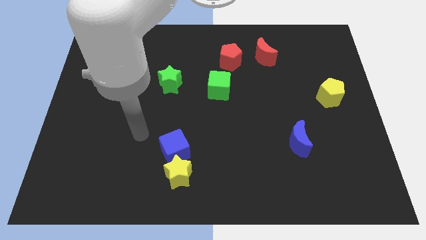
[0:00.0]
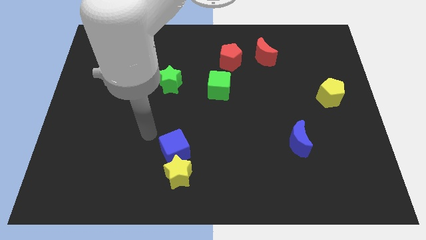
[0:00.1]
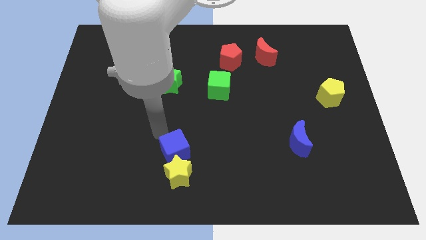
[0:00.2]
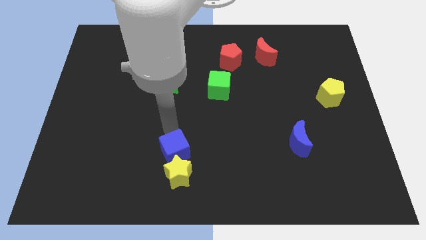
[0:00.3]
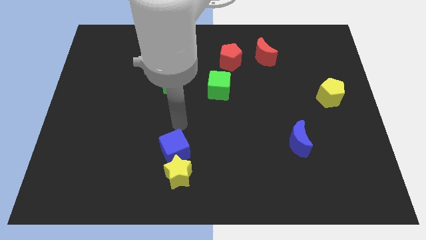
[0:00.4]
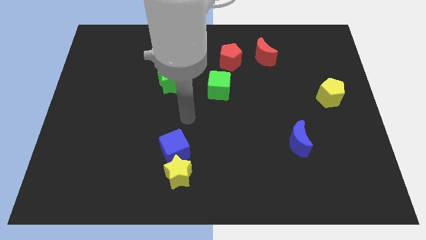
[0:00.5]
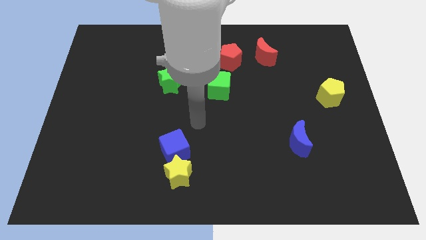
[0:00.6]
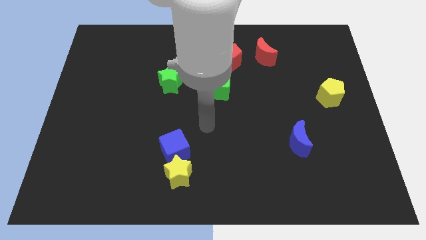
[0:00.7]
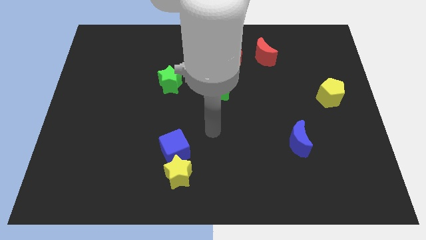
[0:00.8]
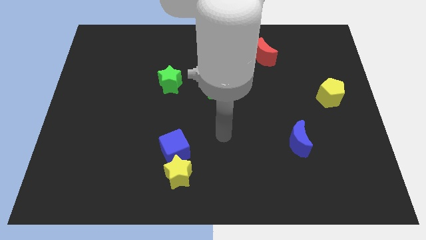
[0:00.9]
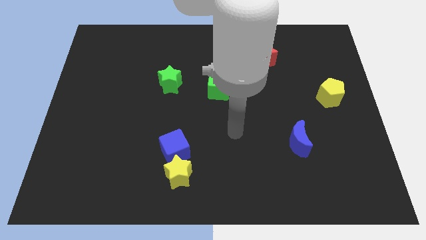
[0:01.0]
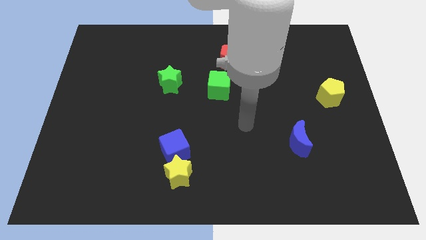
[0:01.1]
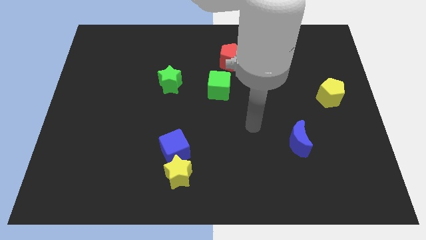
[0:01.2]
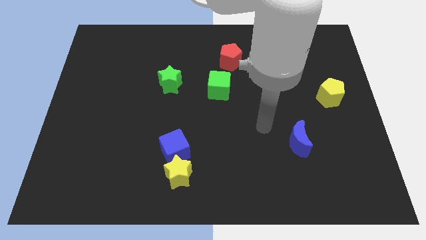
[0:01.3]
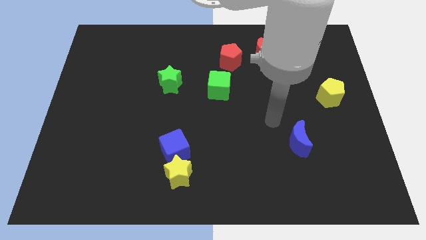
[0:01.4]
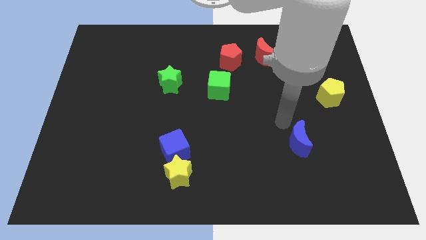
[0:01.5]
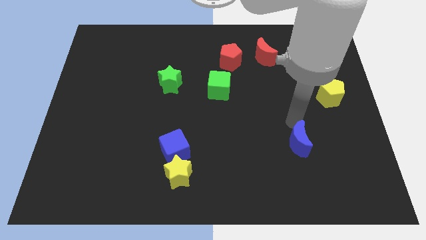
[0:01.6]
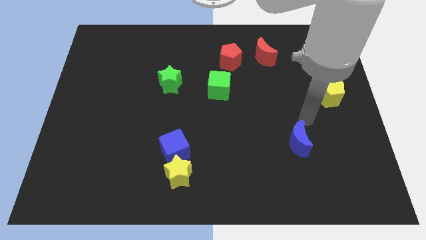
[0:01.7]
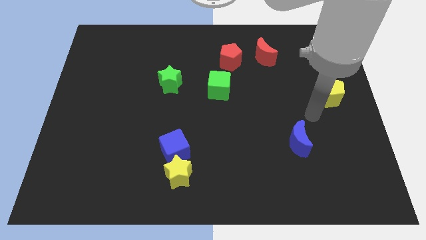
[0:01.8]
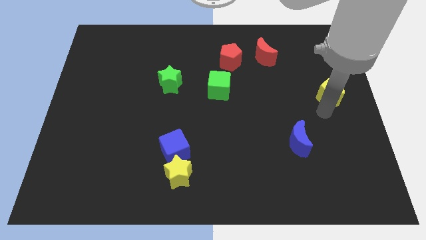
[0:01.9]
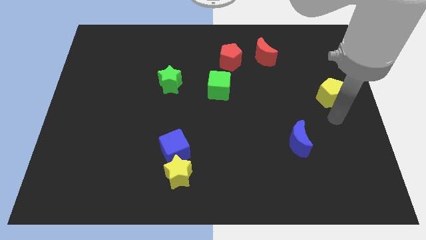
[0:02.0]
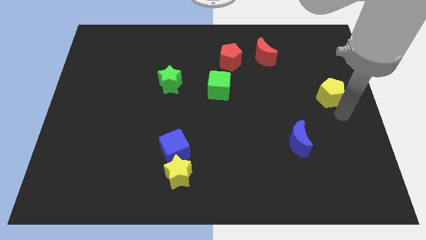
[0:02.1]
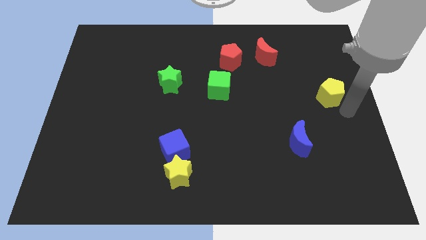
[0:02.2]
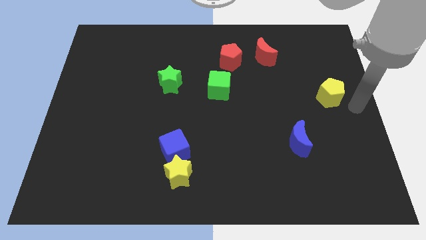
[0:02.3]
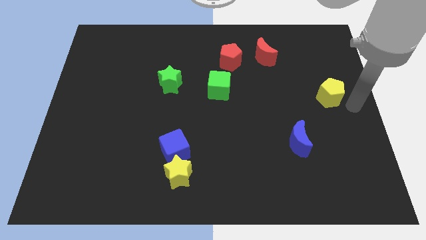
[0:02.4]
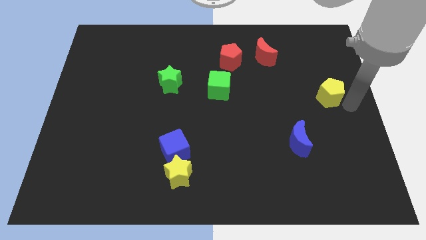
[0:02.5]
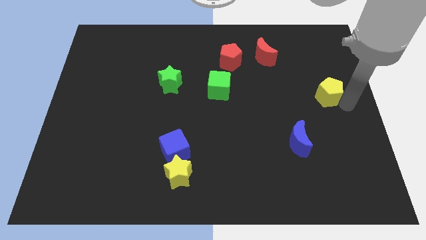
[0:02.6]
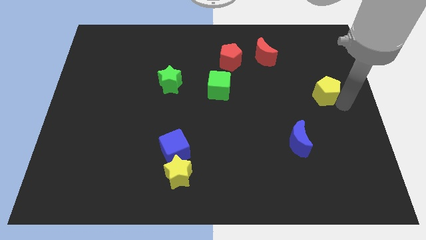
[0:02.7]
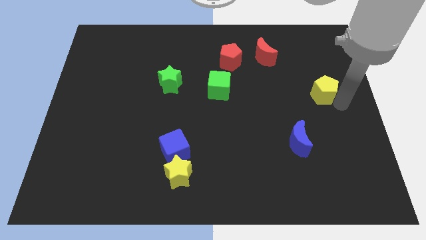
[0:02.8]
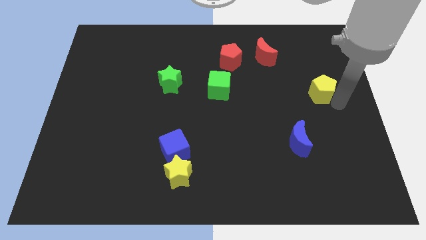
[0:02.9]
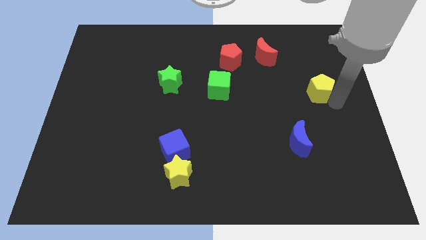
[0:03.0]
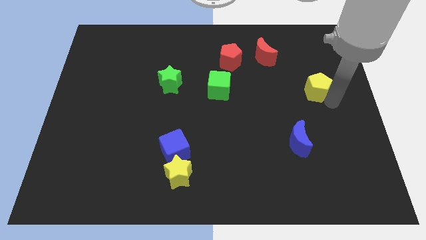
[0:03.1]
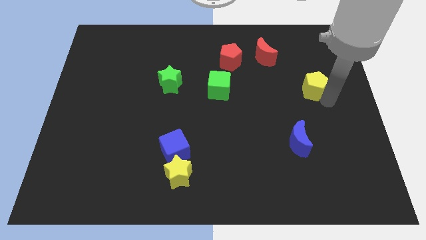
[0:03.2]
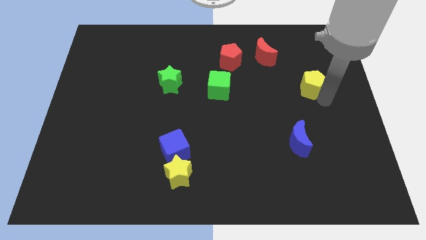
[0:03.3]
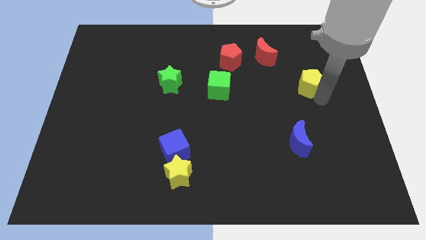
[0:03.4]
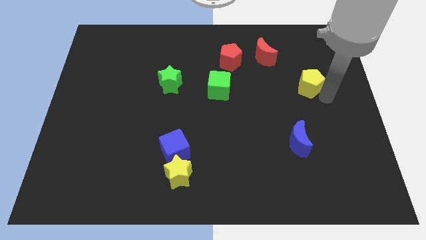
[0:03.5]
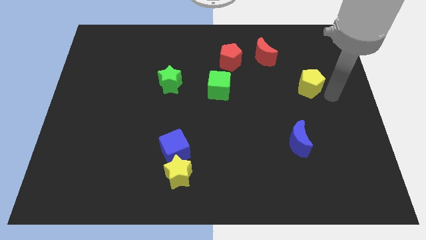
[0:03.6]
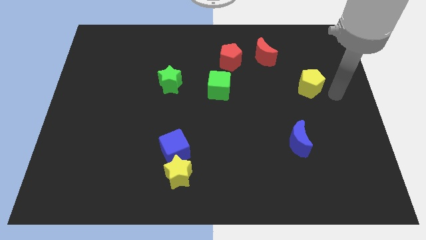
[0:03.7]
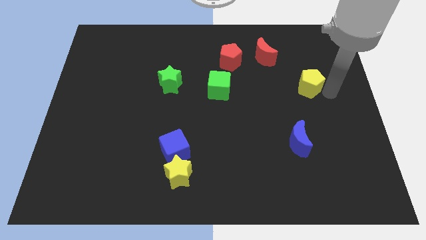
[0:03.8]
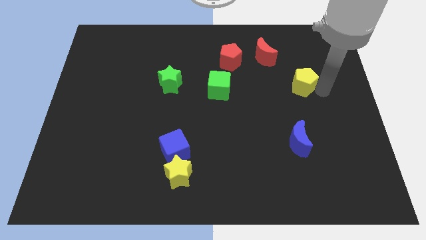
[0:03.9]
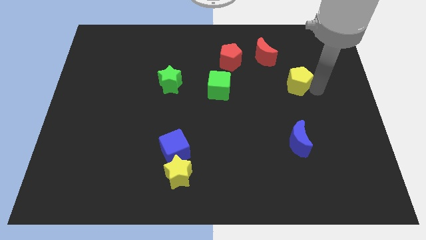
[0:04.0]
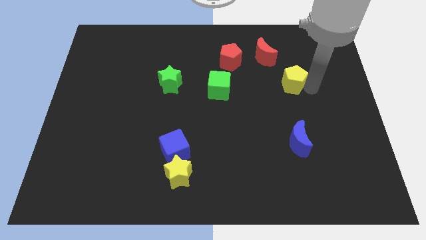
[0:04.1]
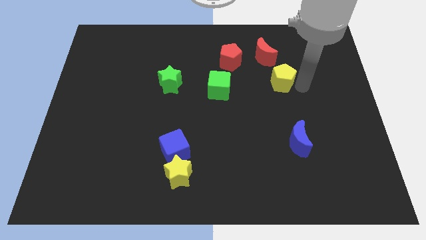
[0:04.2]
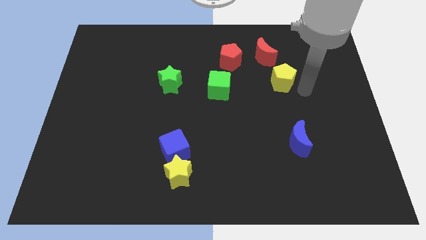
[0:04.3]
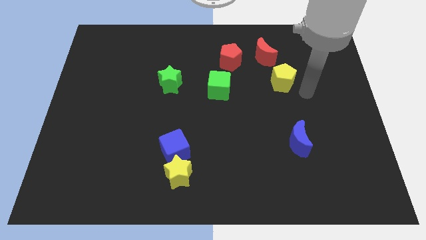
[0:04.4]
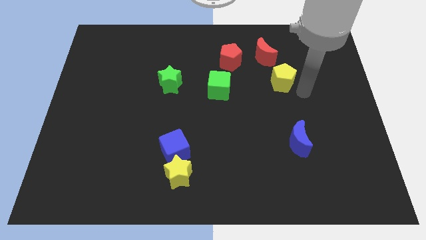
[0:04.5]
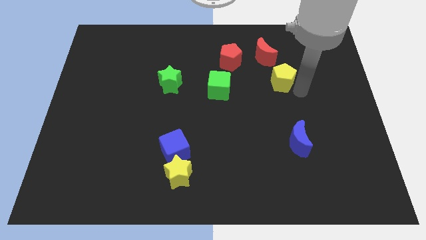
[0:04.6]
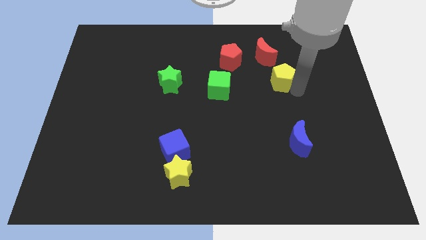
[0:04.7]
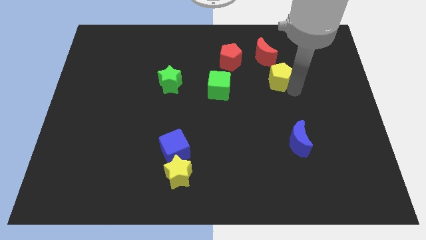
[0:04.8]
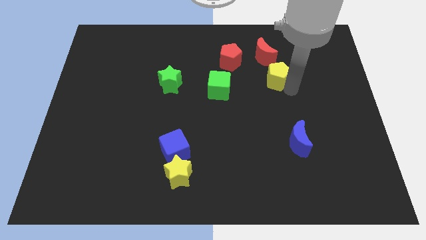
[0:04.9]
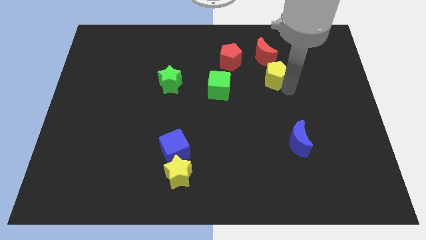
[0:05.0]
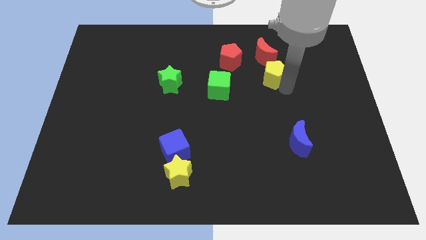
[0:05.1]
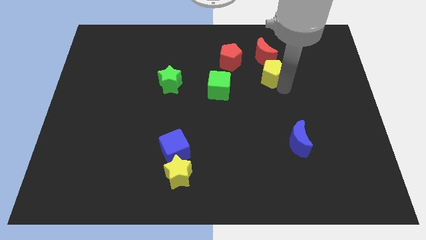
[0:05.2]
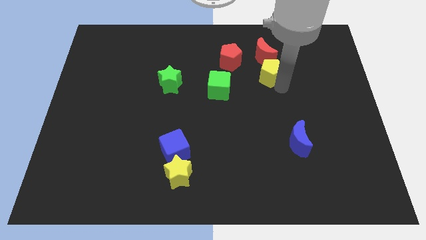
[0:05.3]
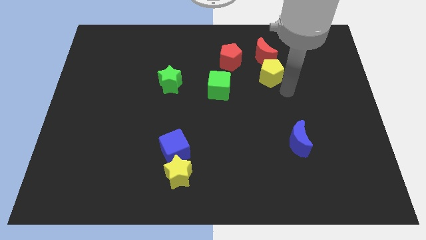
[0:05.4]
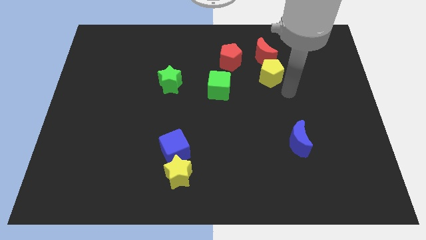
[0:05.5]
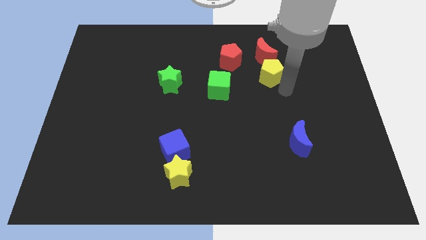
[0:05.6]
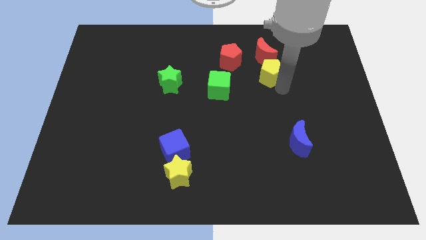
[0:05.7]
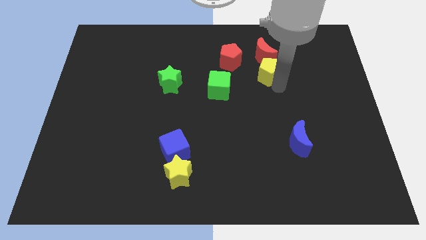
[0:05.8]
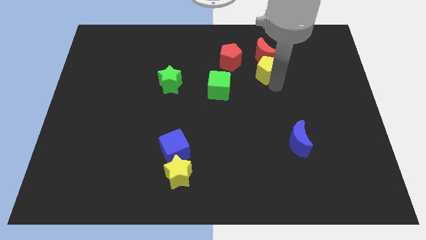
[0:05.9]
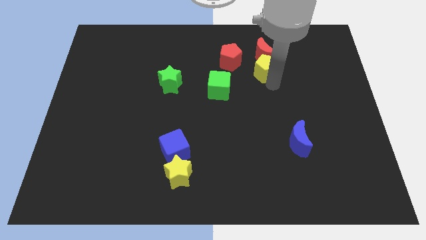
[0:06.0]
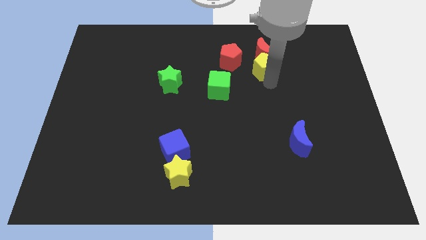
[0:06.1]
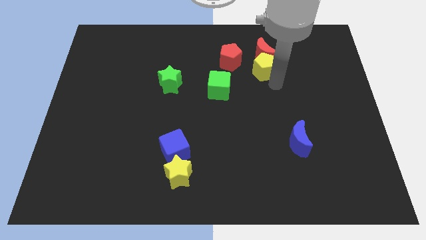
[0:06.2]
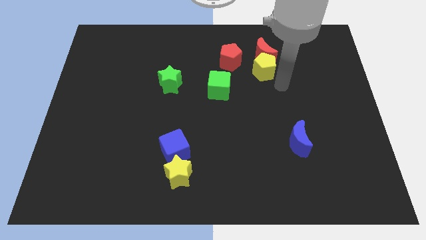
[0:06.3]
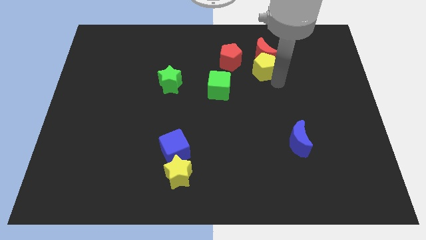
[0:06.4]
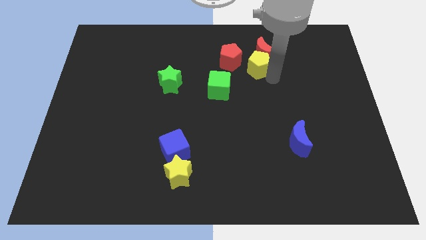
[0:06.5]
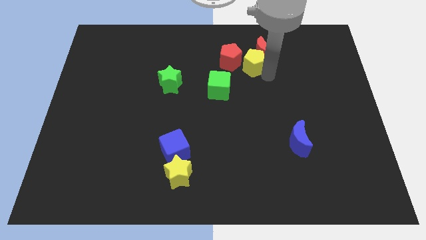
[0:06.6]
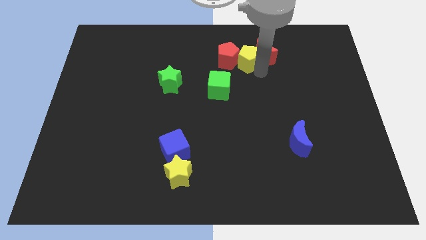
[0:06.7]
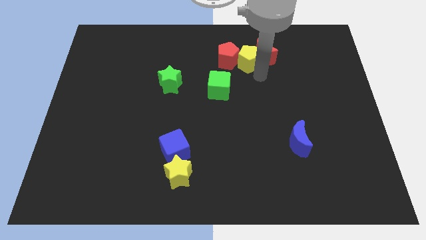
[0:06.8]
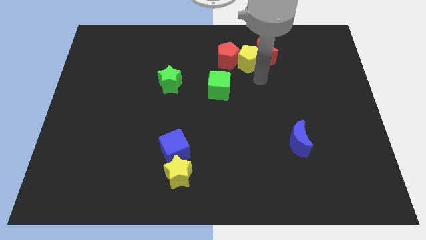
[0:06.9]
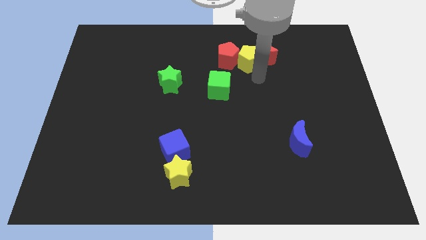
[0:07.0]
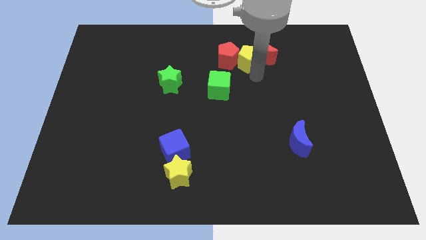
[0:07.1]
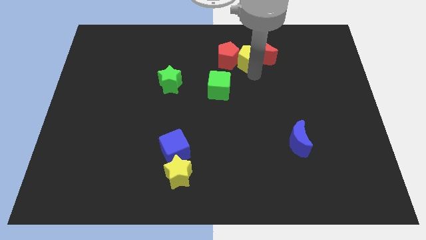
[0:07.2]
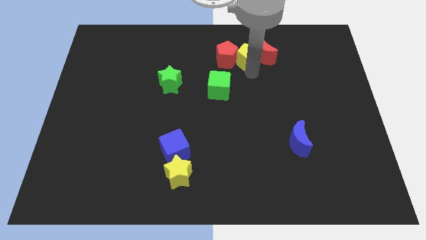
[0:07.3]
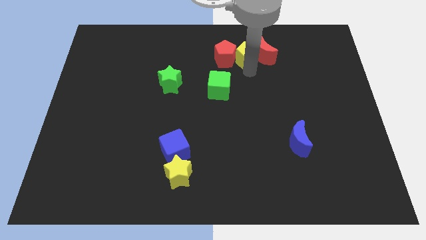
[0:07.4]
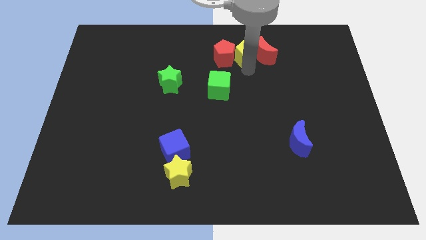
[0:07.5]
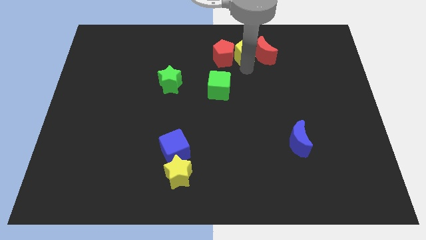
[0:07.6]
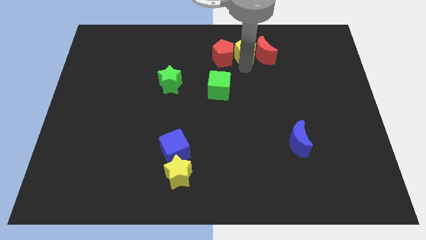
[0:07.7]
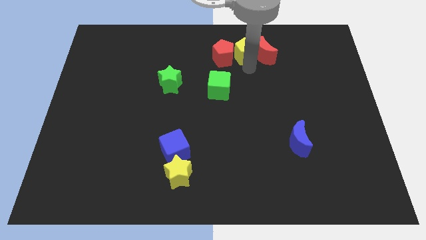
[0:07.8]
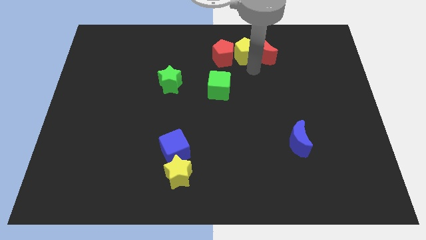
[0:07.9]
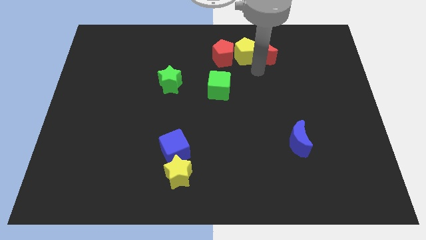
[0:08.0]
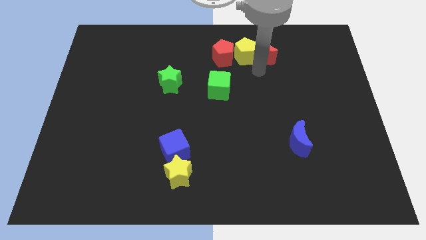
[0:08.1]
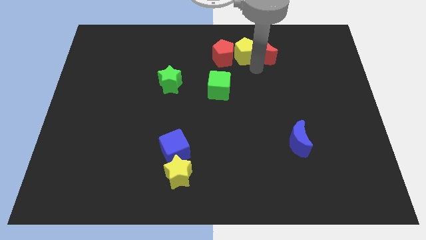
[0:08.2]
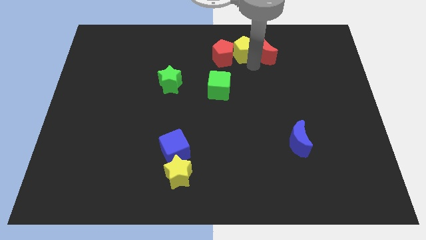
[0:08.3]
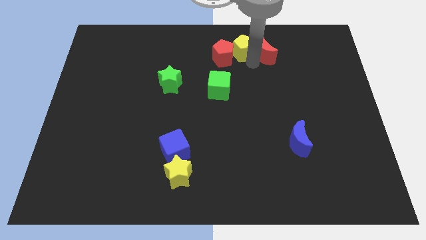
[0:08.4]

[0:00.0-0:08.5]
put the yellow pentagon to the top
